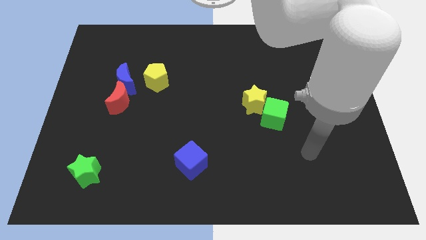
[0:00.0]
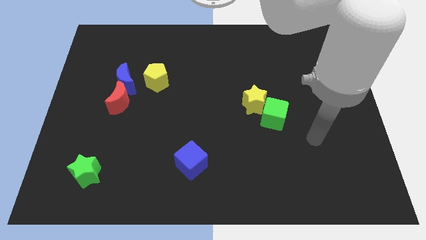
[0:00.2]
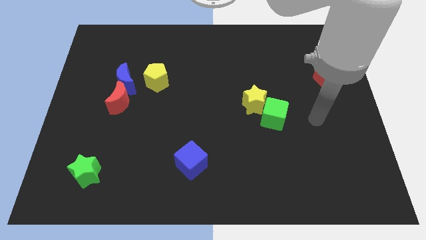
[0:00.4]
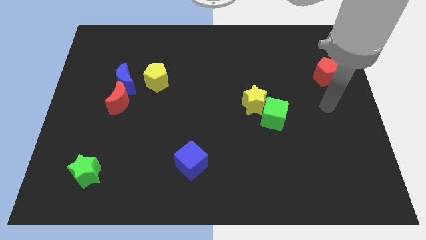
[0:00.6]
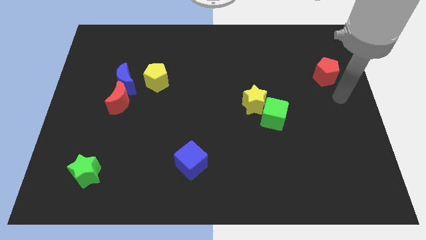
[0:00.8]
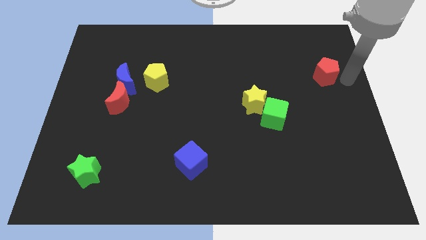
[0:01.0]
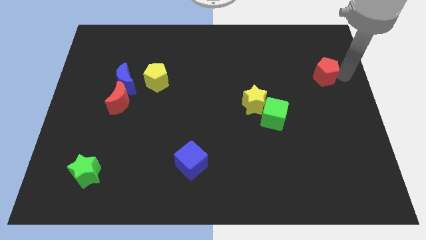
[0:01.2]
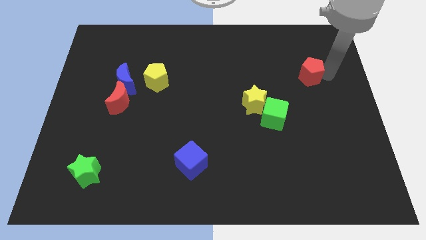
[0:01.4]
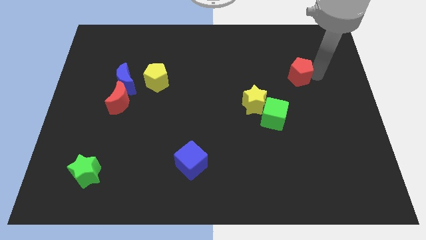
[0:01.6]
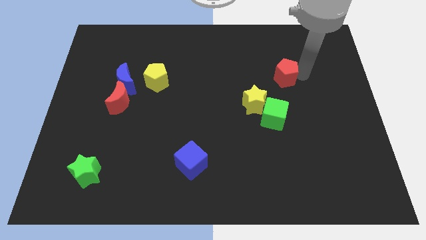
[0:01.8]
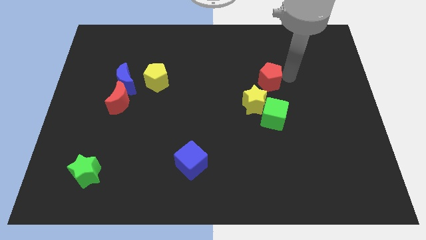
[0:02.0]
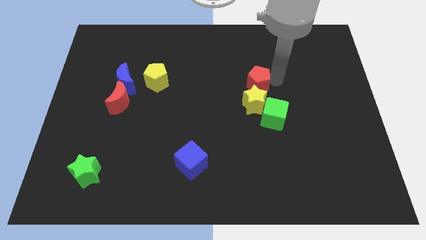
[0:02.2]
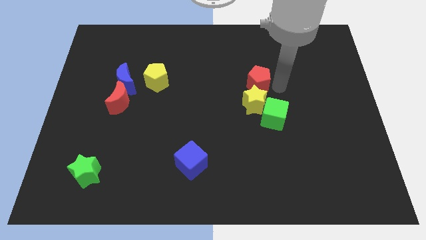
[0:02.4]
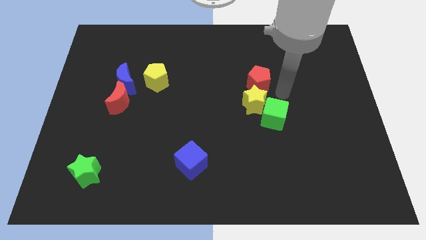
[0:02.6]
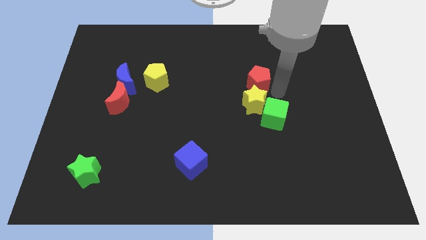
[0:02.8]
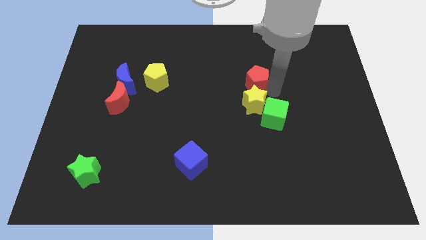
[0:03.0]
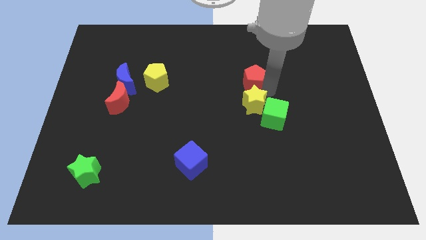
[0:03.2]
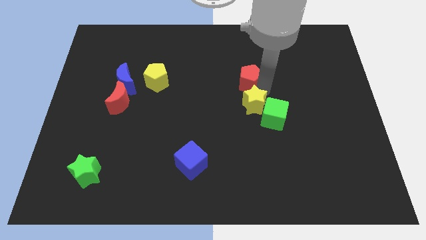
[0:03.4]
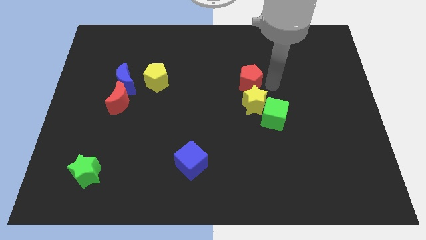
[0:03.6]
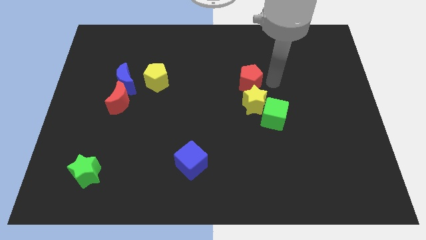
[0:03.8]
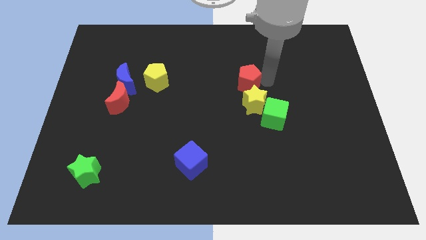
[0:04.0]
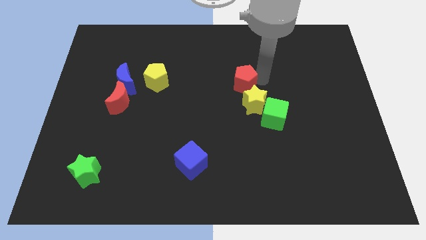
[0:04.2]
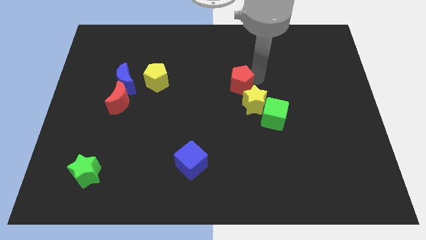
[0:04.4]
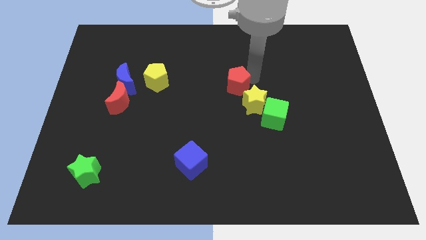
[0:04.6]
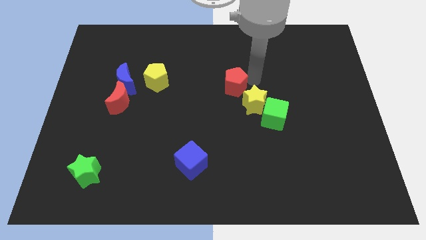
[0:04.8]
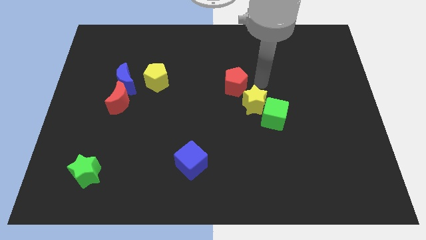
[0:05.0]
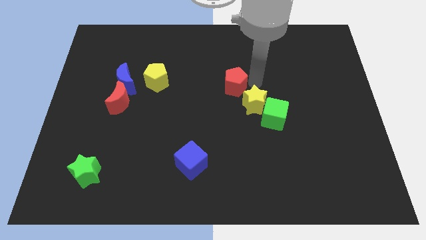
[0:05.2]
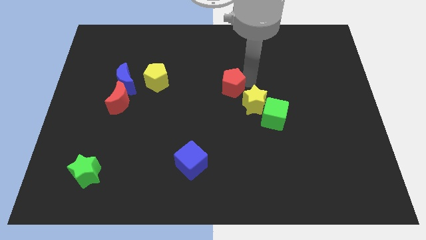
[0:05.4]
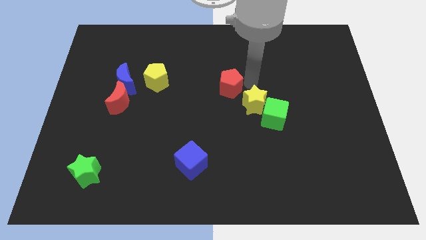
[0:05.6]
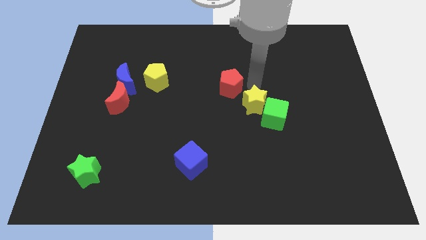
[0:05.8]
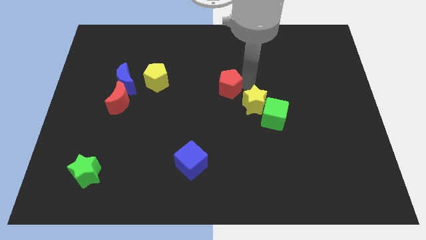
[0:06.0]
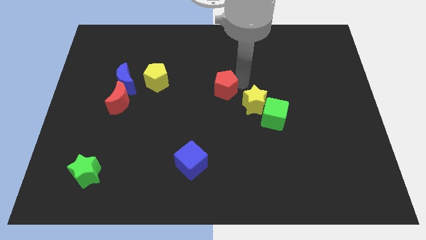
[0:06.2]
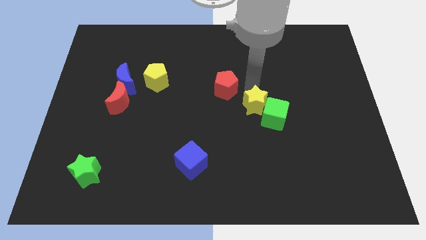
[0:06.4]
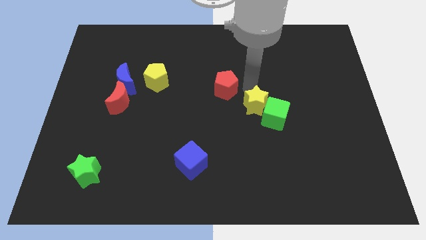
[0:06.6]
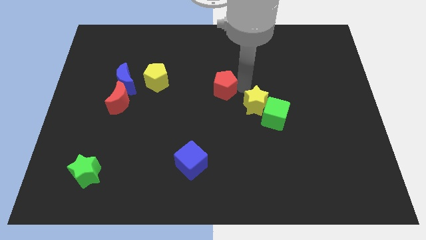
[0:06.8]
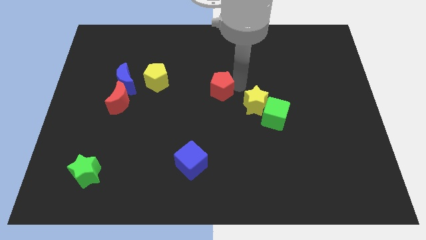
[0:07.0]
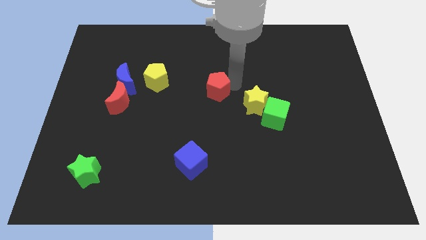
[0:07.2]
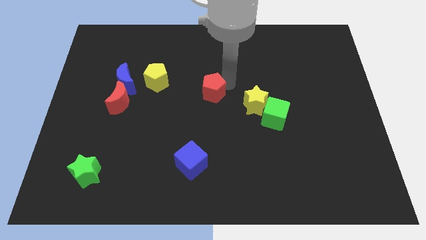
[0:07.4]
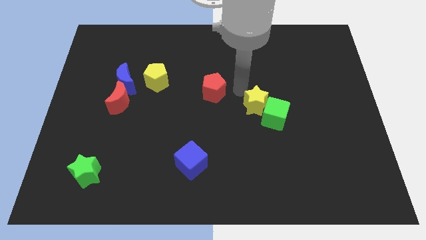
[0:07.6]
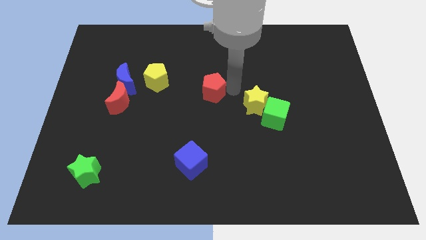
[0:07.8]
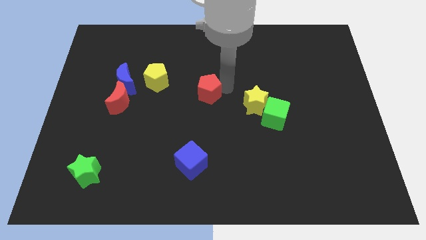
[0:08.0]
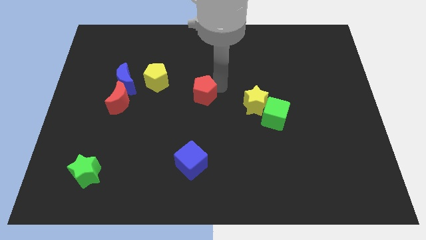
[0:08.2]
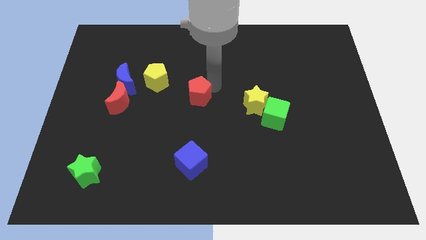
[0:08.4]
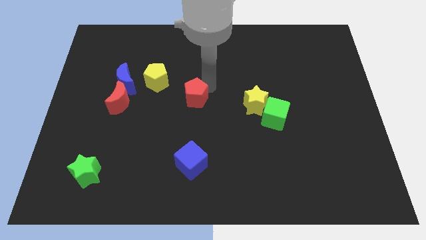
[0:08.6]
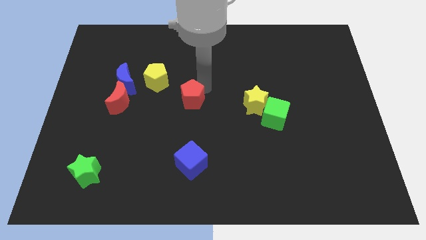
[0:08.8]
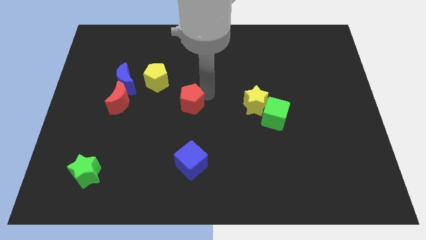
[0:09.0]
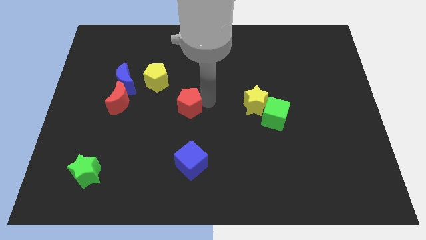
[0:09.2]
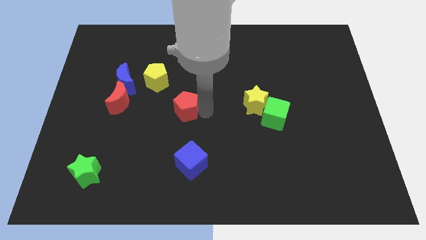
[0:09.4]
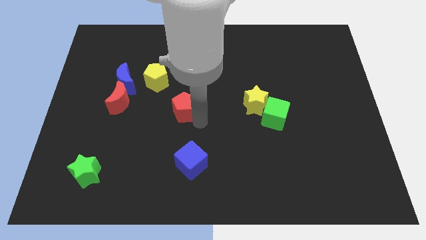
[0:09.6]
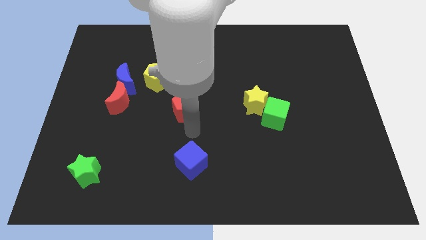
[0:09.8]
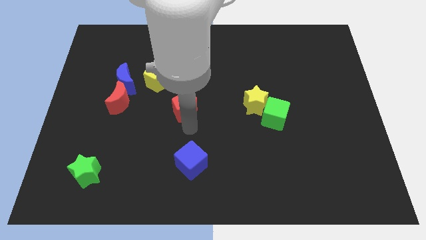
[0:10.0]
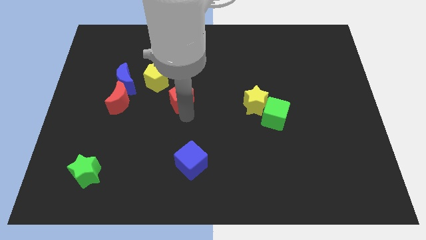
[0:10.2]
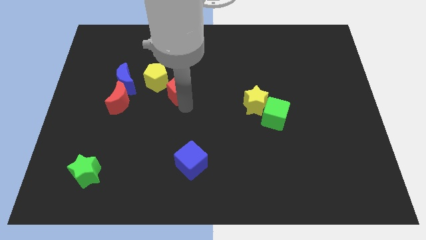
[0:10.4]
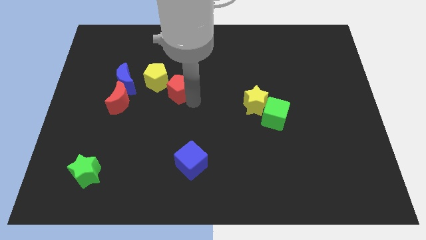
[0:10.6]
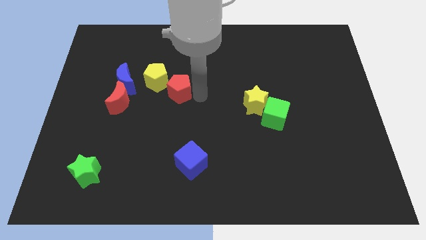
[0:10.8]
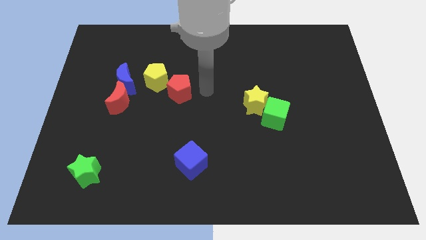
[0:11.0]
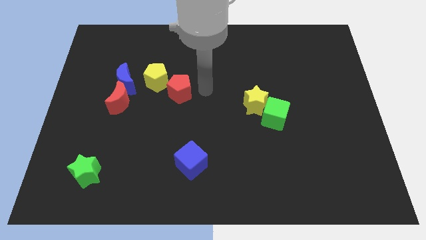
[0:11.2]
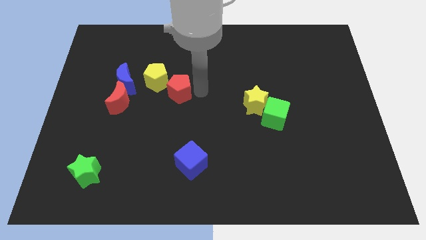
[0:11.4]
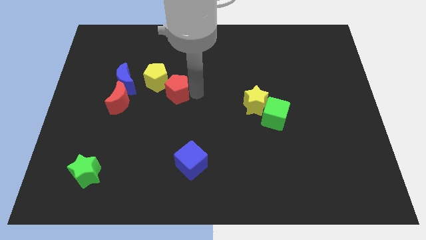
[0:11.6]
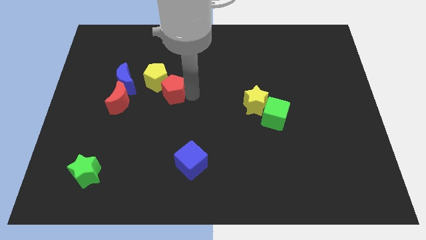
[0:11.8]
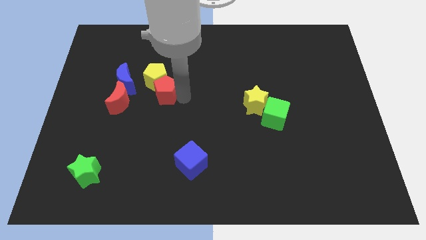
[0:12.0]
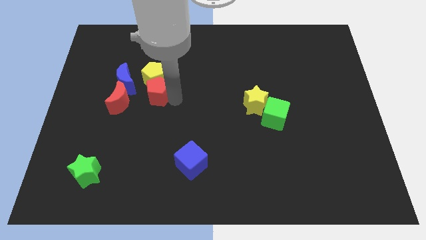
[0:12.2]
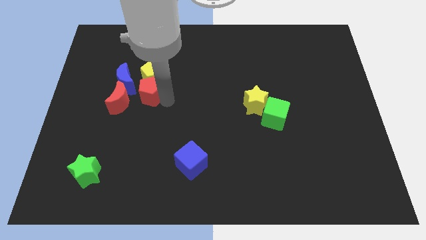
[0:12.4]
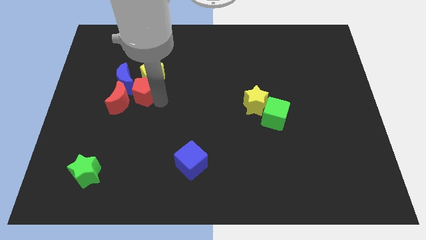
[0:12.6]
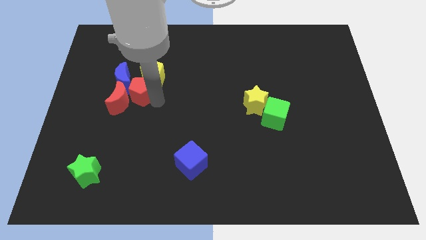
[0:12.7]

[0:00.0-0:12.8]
put the red pentagon to the blue moon
